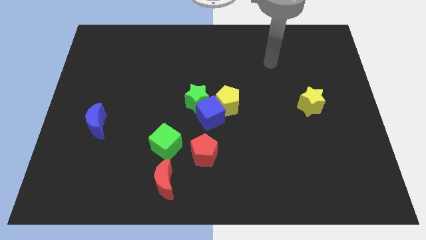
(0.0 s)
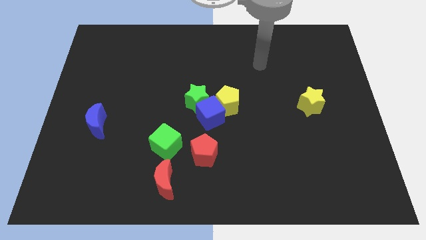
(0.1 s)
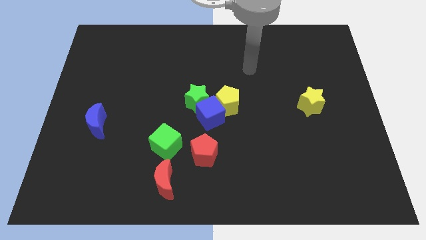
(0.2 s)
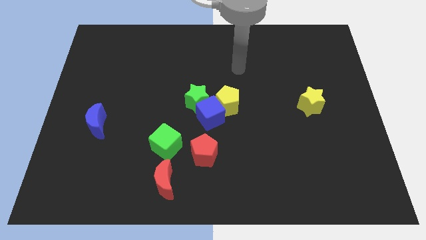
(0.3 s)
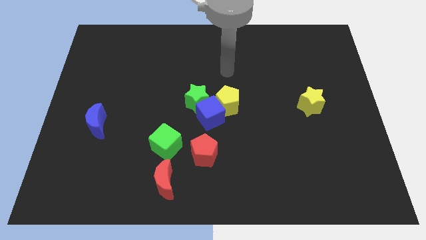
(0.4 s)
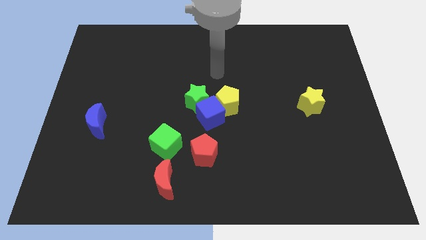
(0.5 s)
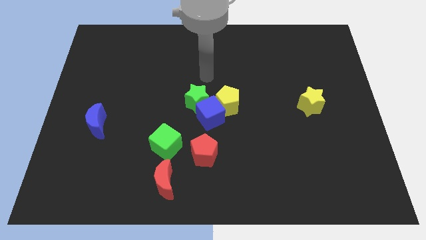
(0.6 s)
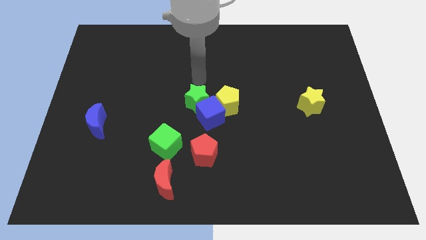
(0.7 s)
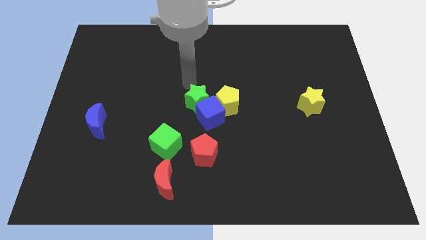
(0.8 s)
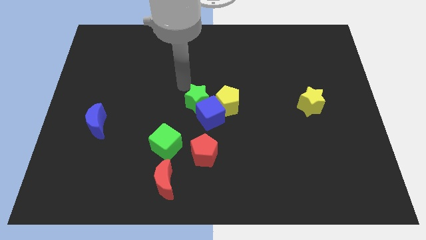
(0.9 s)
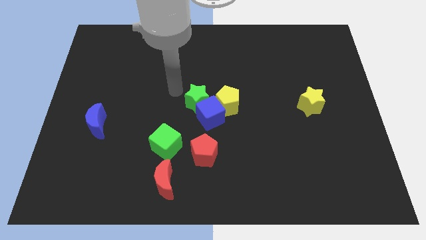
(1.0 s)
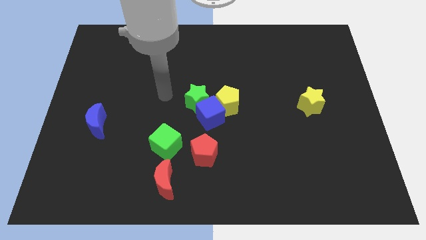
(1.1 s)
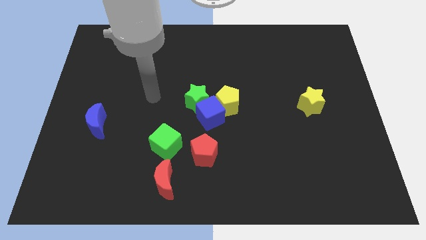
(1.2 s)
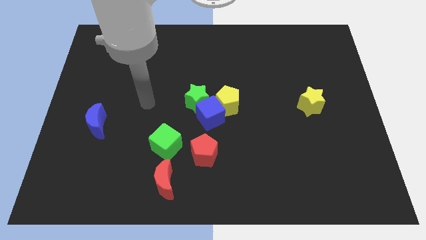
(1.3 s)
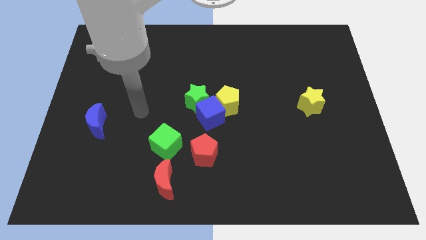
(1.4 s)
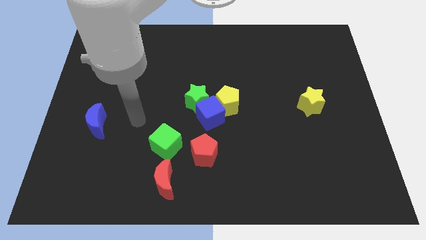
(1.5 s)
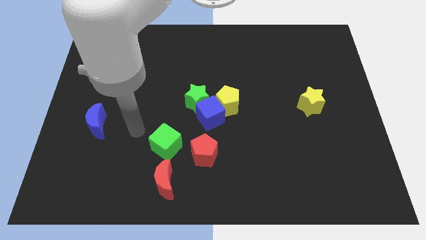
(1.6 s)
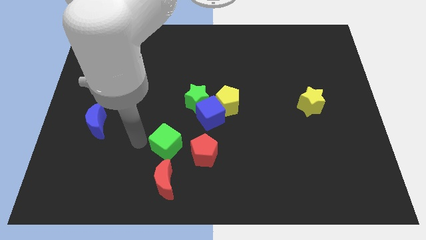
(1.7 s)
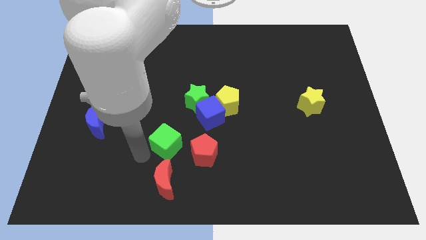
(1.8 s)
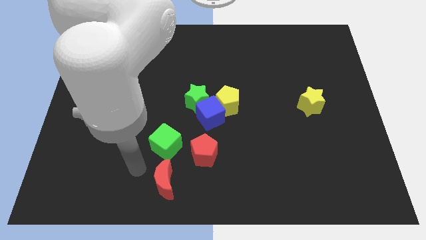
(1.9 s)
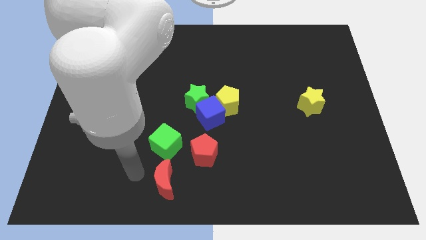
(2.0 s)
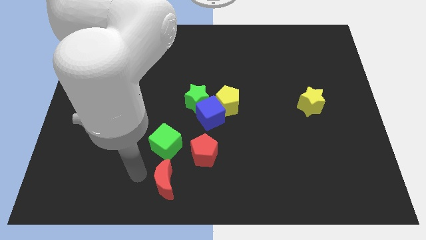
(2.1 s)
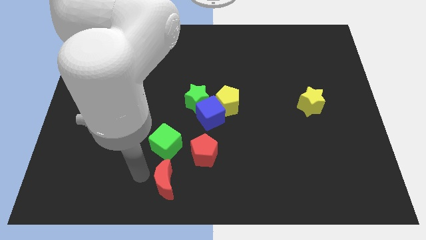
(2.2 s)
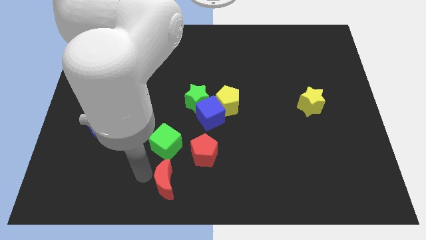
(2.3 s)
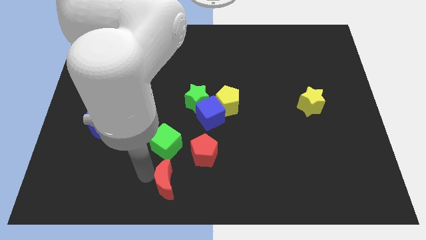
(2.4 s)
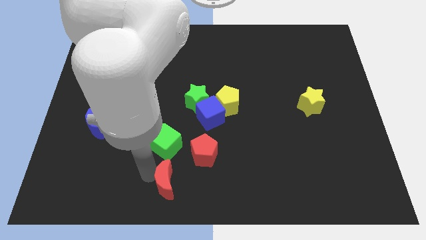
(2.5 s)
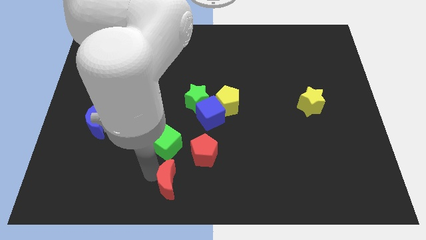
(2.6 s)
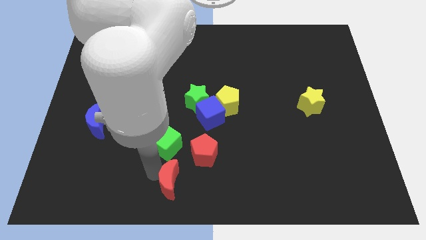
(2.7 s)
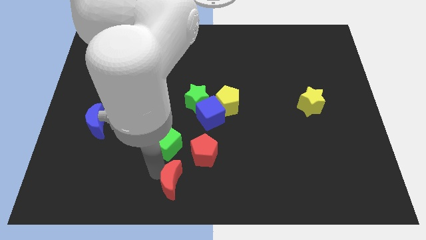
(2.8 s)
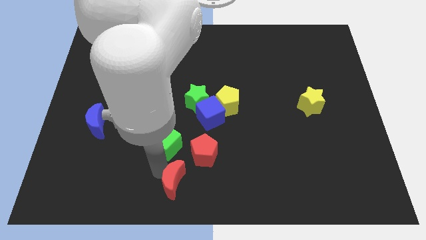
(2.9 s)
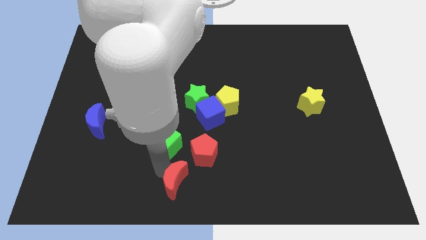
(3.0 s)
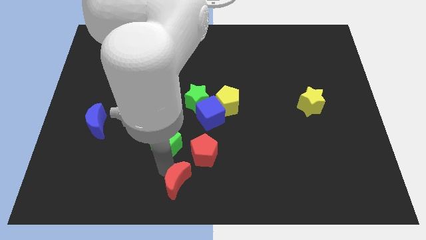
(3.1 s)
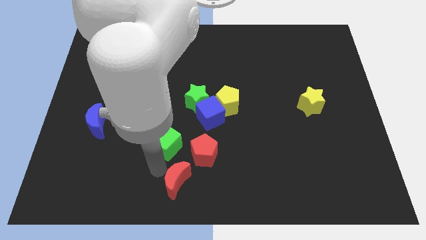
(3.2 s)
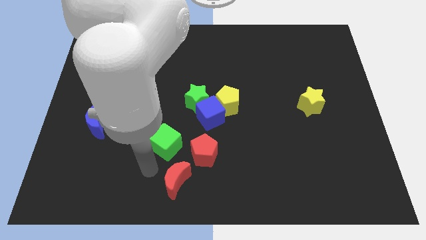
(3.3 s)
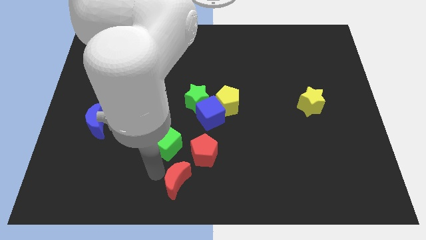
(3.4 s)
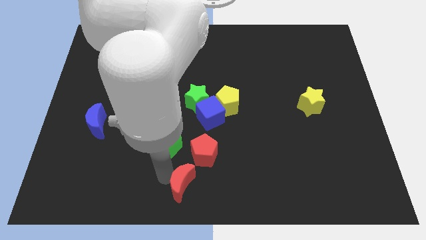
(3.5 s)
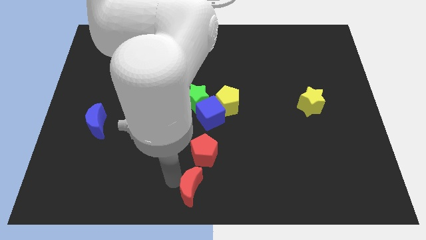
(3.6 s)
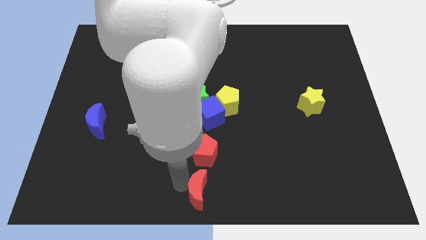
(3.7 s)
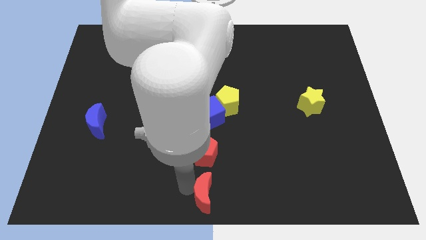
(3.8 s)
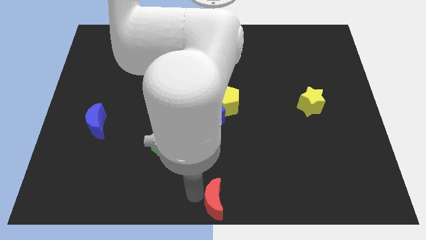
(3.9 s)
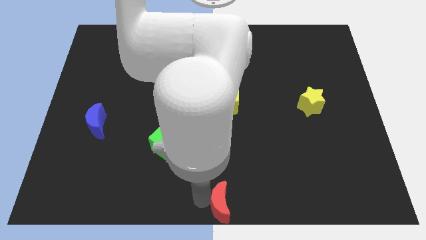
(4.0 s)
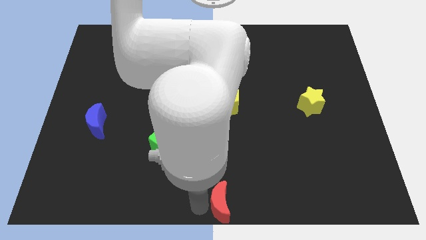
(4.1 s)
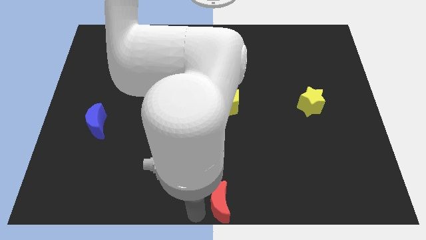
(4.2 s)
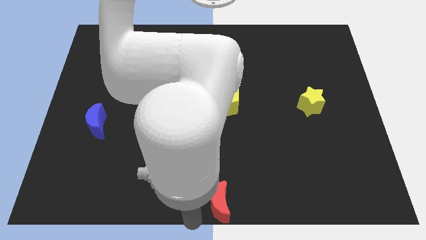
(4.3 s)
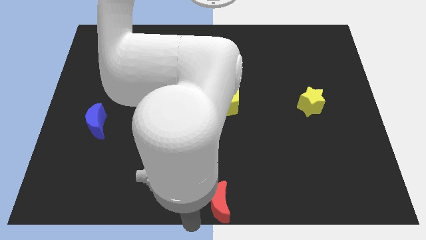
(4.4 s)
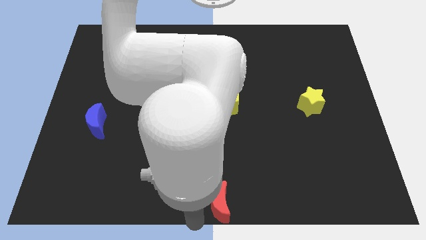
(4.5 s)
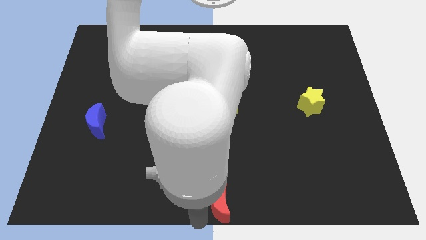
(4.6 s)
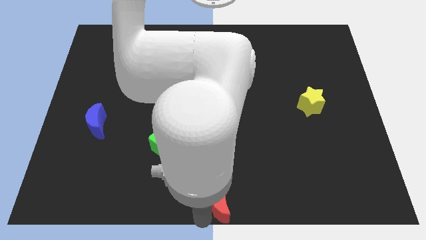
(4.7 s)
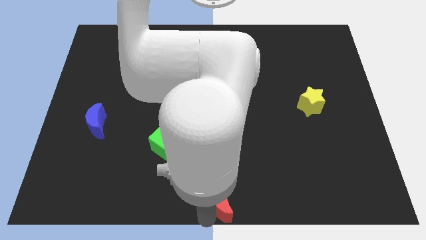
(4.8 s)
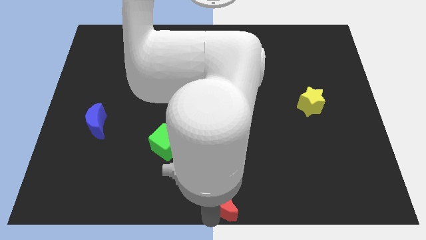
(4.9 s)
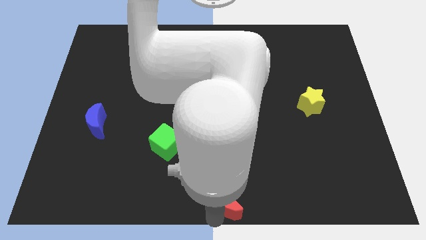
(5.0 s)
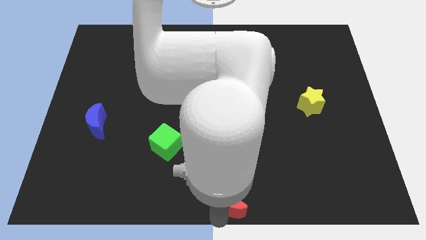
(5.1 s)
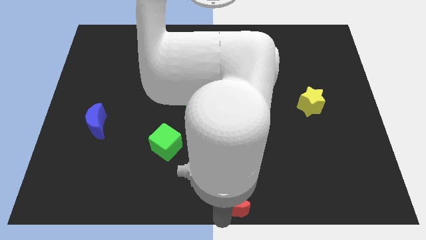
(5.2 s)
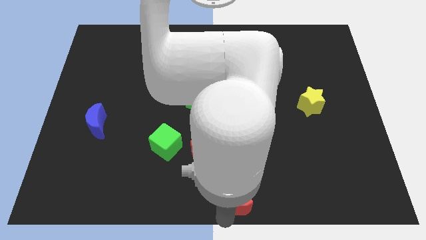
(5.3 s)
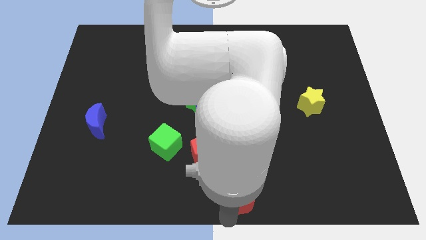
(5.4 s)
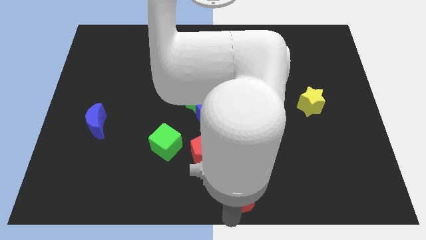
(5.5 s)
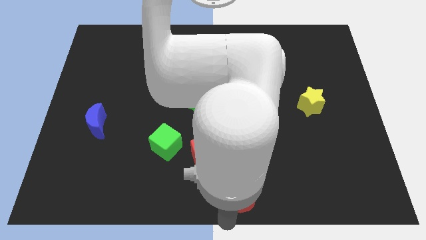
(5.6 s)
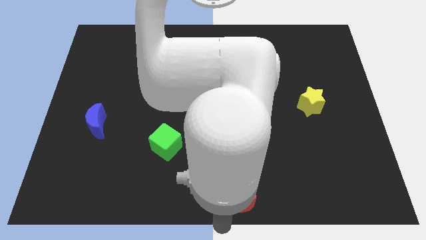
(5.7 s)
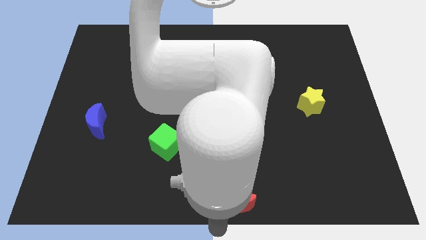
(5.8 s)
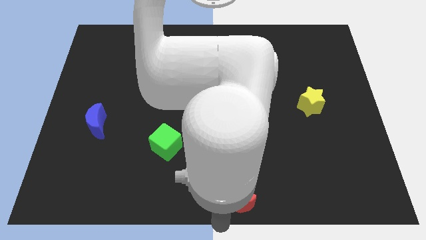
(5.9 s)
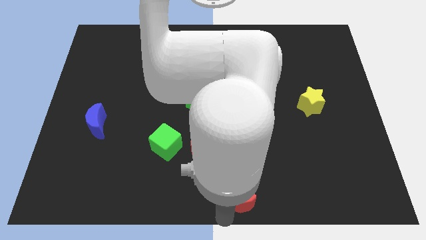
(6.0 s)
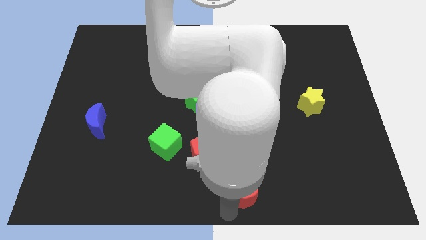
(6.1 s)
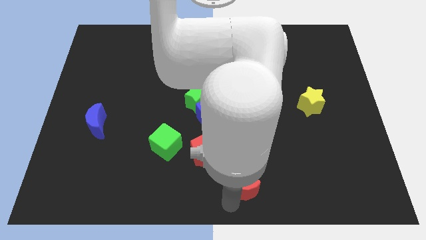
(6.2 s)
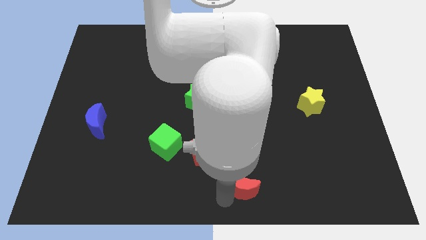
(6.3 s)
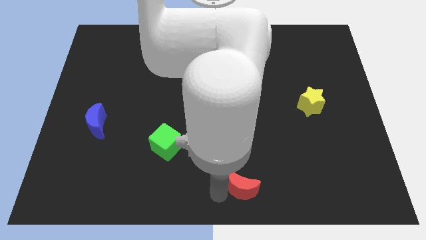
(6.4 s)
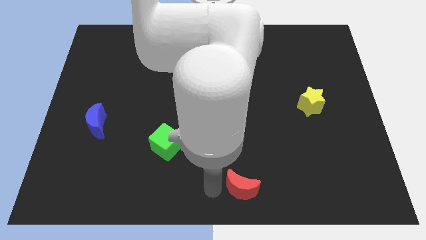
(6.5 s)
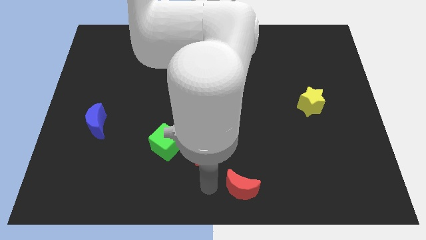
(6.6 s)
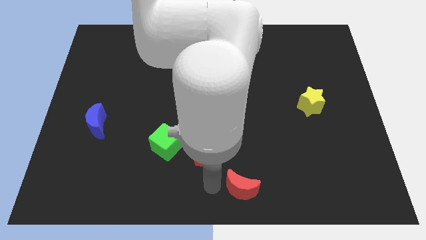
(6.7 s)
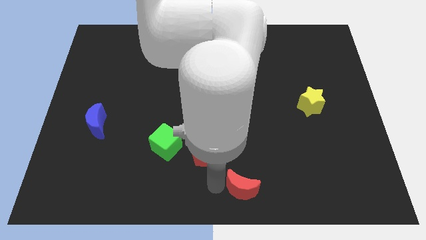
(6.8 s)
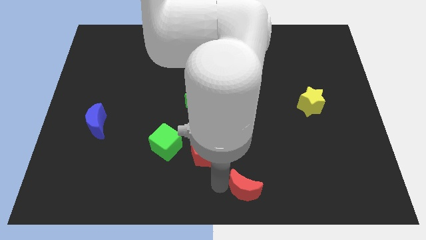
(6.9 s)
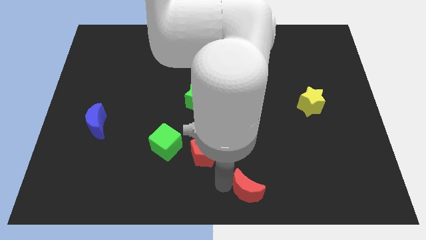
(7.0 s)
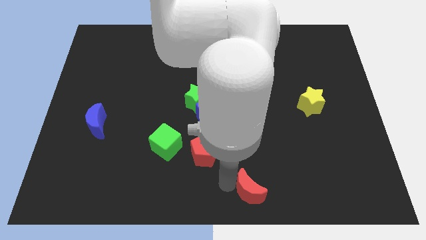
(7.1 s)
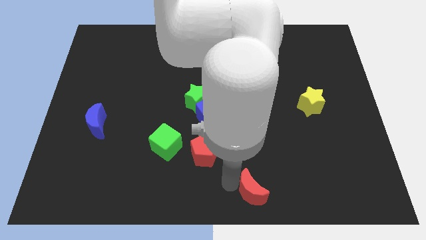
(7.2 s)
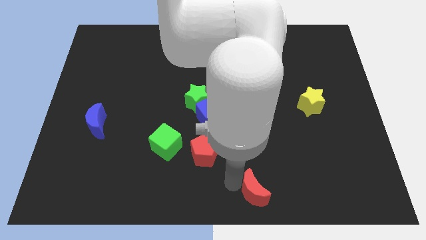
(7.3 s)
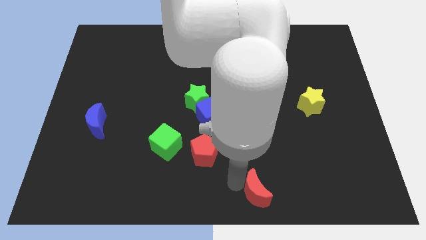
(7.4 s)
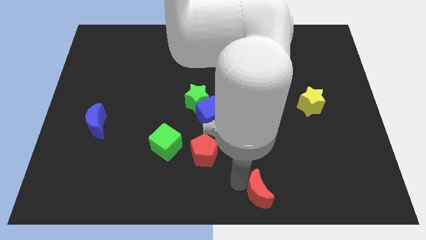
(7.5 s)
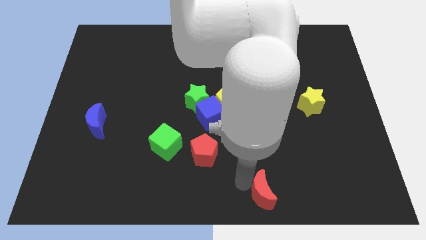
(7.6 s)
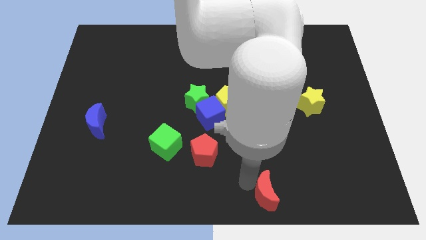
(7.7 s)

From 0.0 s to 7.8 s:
move the red moon right

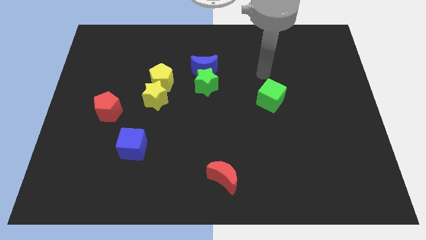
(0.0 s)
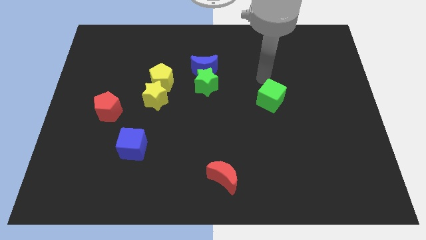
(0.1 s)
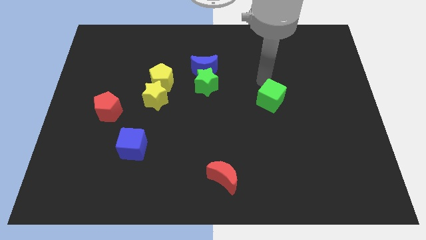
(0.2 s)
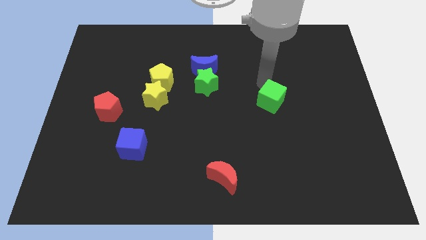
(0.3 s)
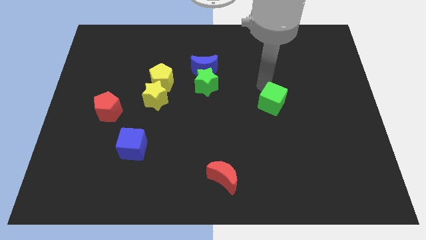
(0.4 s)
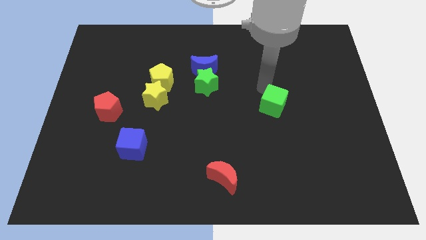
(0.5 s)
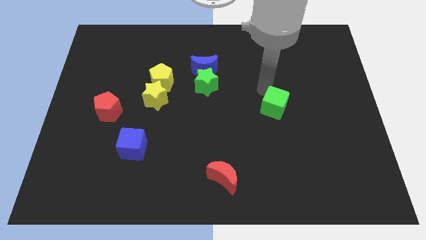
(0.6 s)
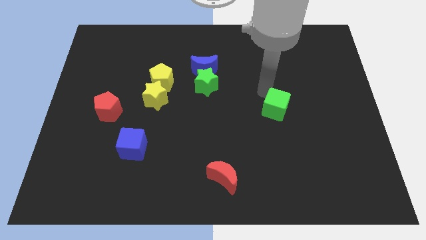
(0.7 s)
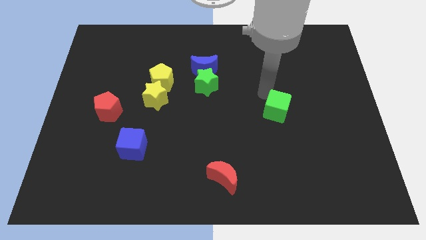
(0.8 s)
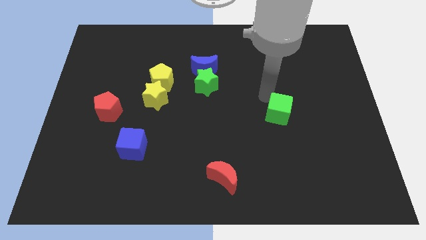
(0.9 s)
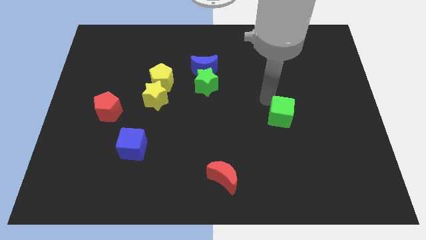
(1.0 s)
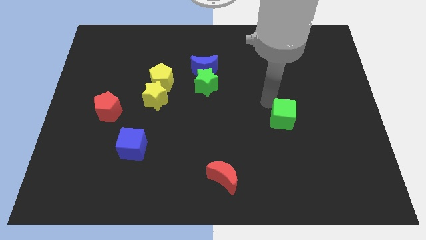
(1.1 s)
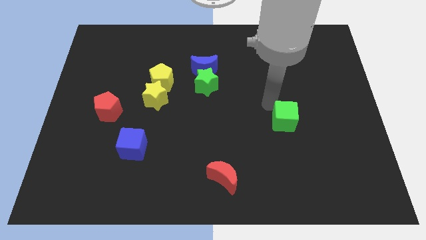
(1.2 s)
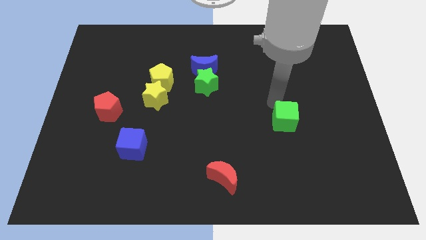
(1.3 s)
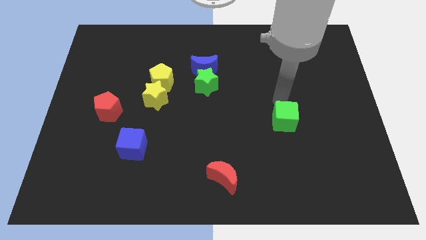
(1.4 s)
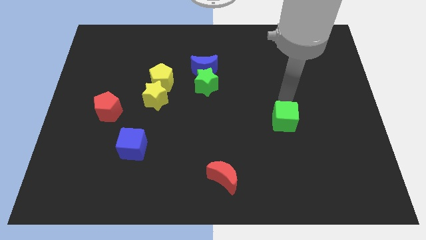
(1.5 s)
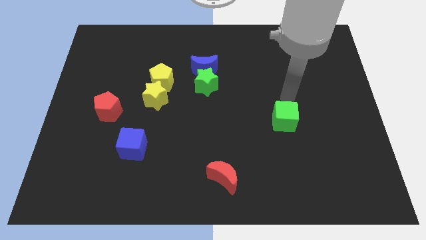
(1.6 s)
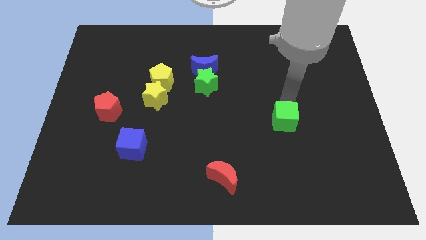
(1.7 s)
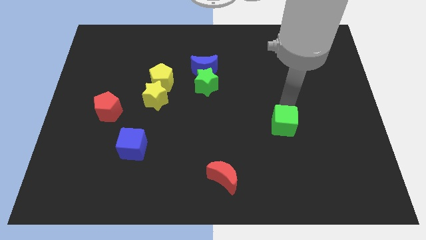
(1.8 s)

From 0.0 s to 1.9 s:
slightly move the green cube down
